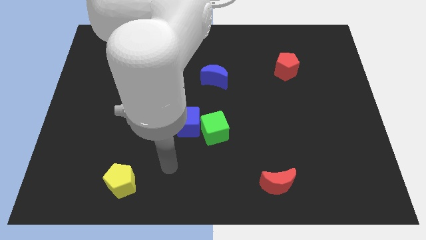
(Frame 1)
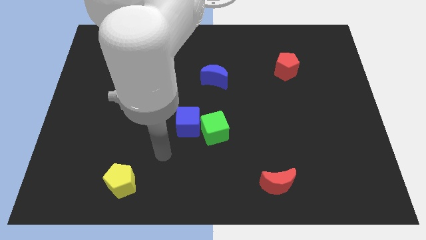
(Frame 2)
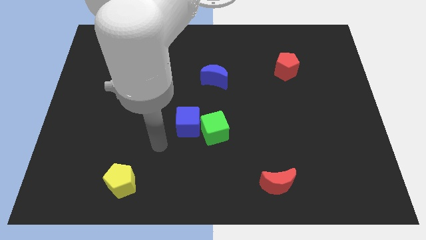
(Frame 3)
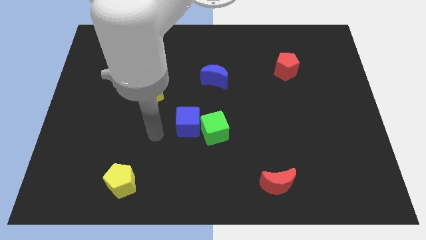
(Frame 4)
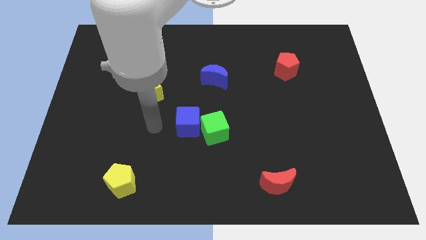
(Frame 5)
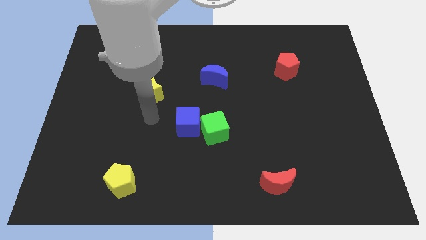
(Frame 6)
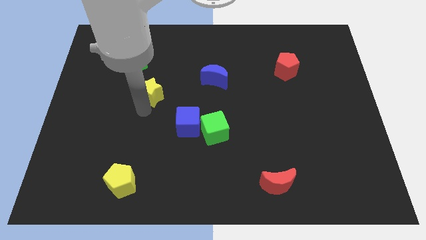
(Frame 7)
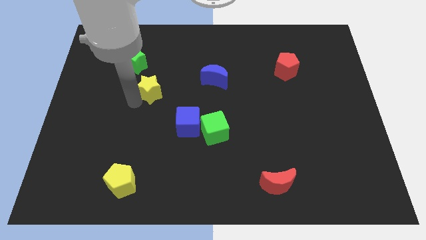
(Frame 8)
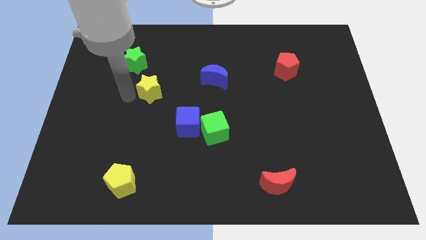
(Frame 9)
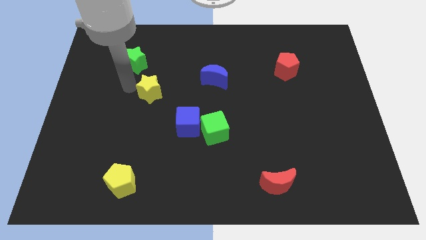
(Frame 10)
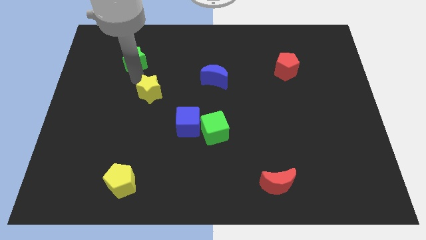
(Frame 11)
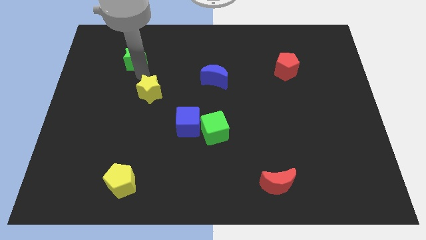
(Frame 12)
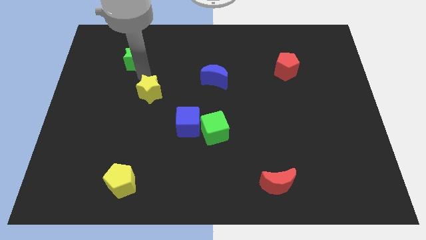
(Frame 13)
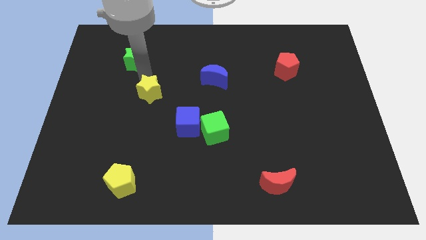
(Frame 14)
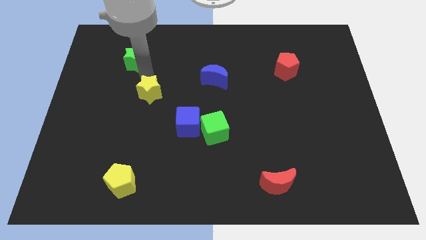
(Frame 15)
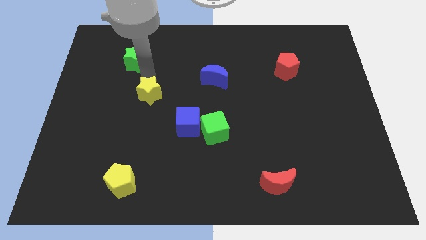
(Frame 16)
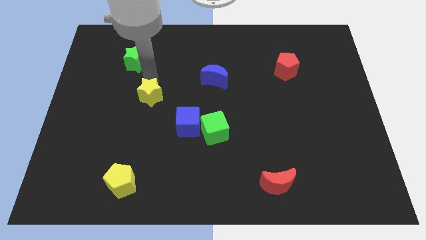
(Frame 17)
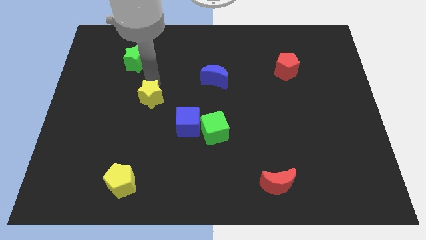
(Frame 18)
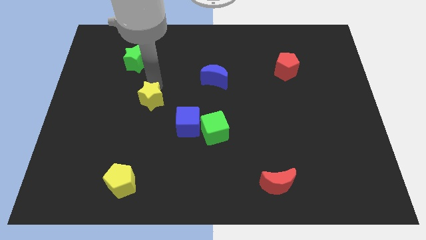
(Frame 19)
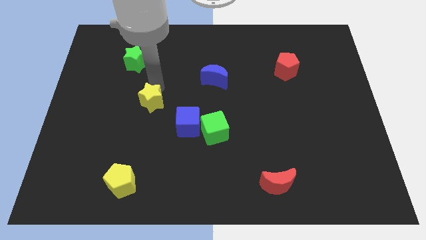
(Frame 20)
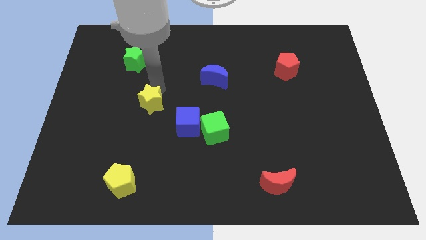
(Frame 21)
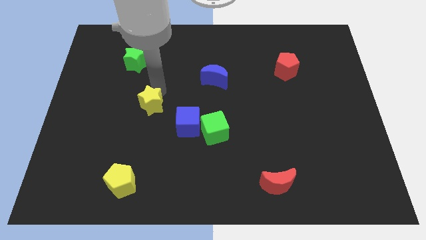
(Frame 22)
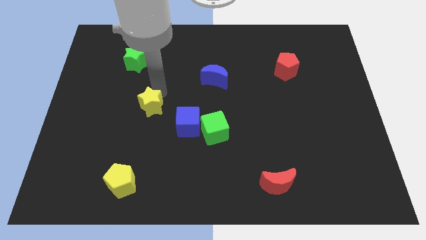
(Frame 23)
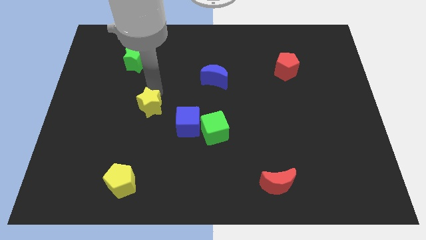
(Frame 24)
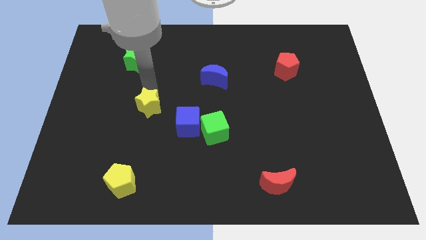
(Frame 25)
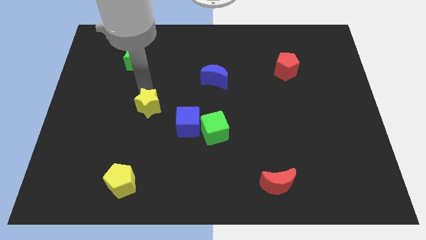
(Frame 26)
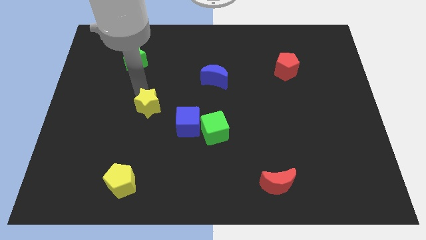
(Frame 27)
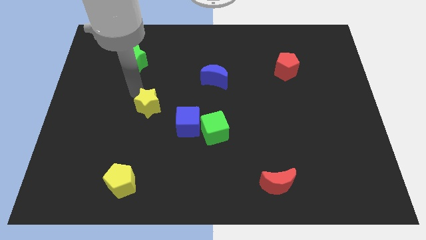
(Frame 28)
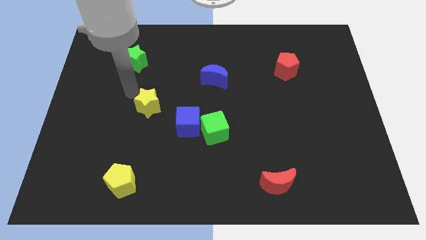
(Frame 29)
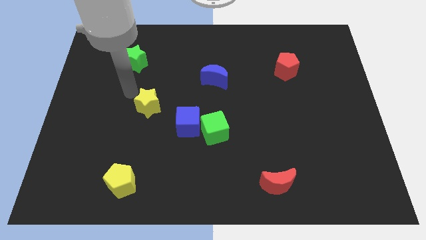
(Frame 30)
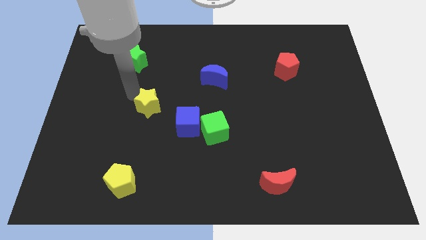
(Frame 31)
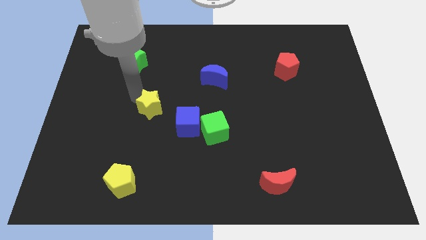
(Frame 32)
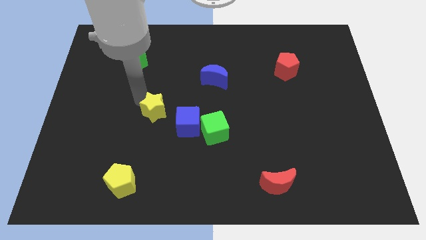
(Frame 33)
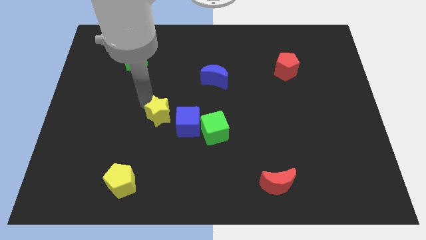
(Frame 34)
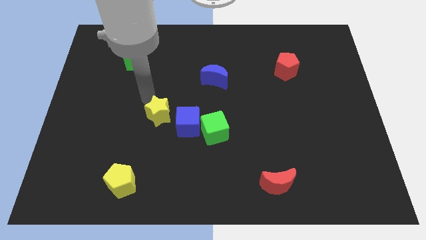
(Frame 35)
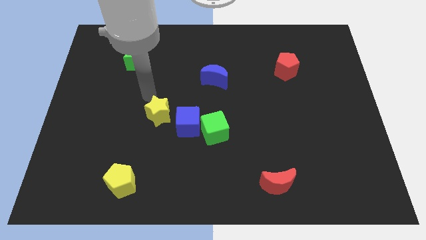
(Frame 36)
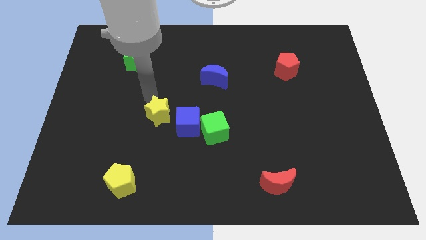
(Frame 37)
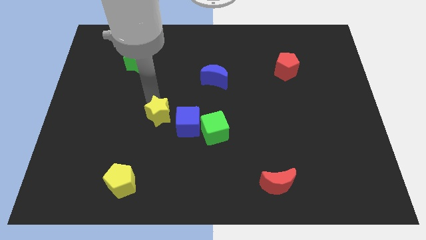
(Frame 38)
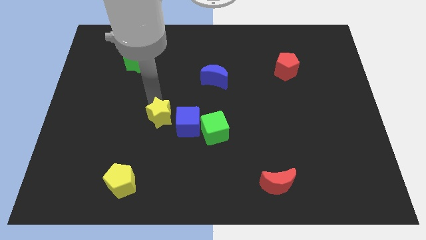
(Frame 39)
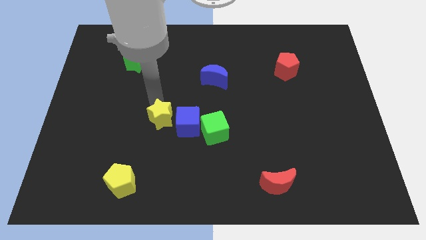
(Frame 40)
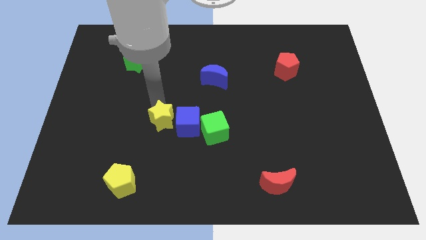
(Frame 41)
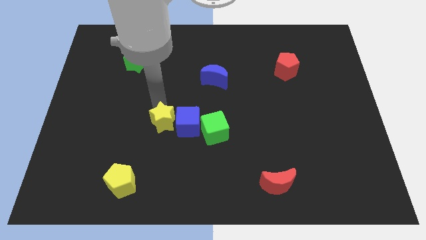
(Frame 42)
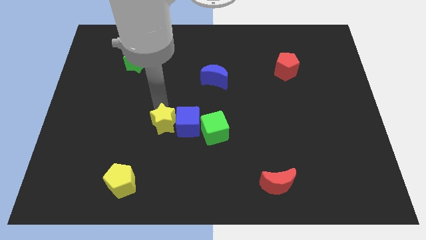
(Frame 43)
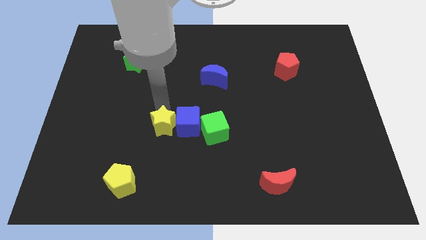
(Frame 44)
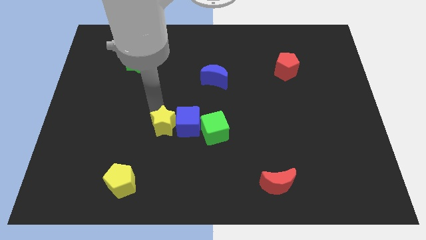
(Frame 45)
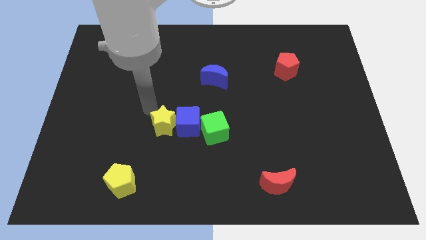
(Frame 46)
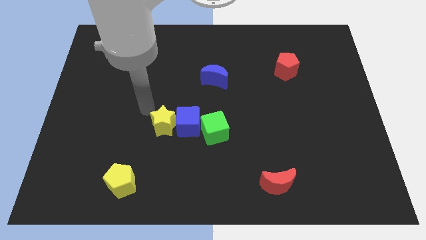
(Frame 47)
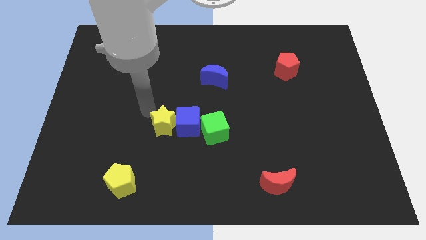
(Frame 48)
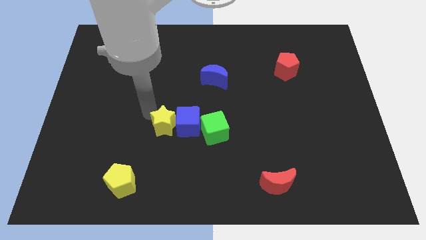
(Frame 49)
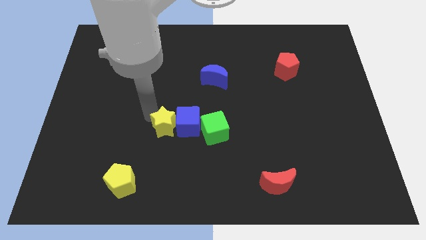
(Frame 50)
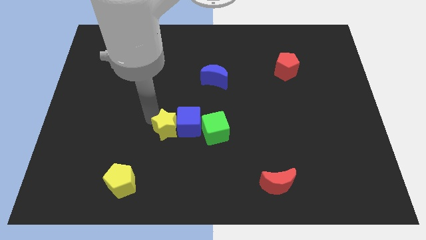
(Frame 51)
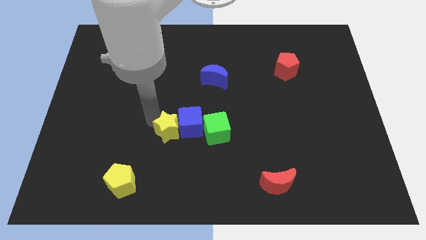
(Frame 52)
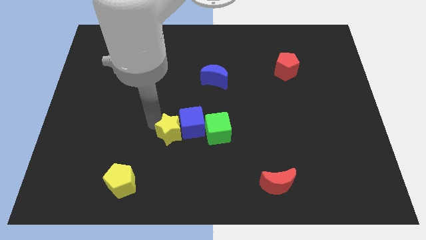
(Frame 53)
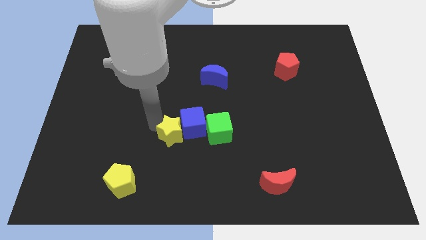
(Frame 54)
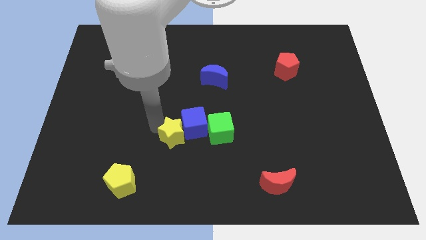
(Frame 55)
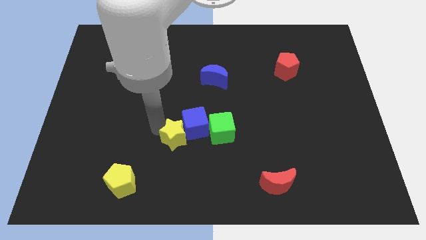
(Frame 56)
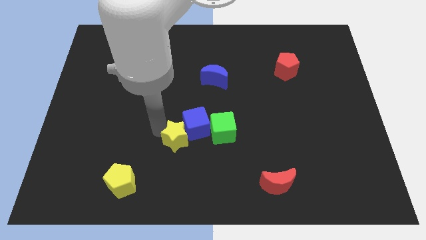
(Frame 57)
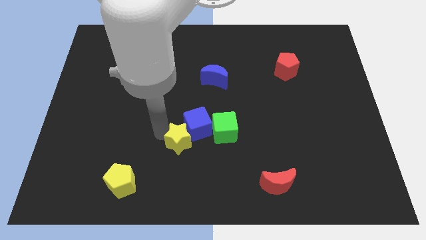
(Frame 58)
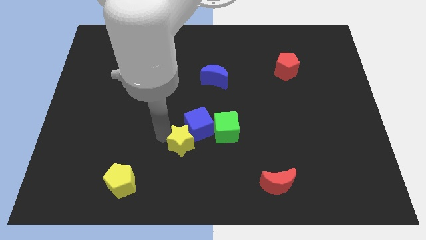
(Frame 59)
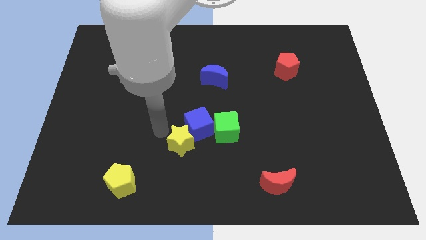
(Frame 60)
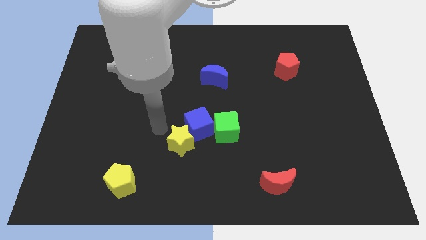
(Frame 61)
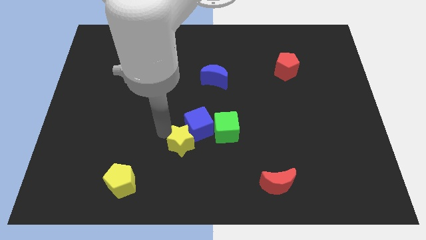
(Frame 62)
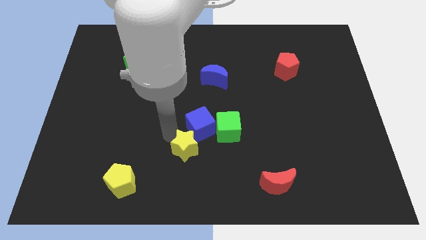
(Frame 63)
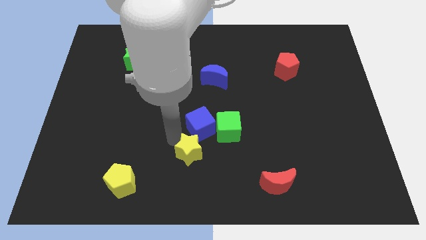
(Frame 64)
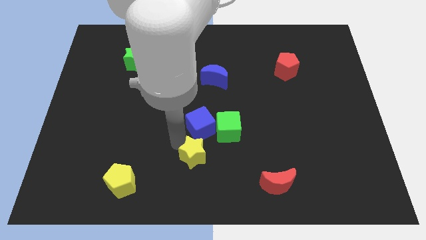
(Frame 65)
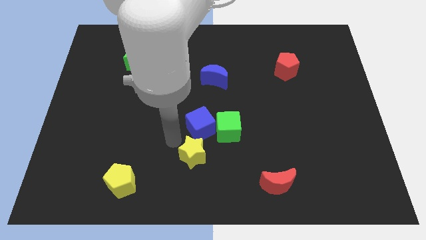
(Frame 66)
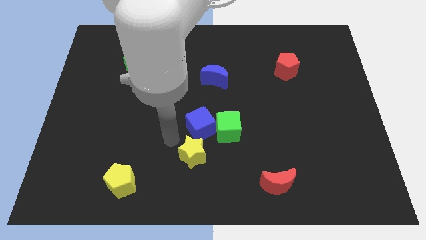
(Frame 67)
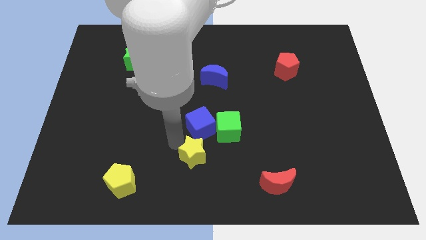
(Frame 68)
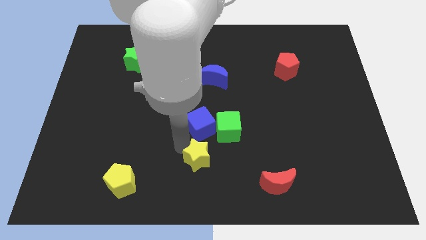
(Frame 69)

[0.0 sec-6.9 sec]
move the yellow star down and right

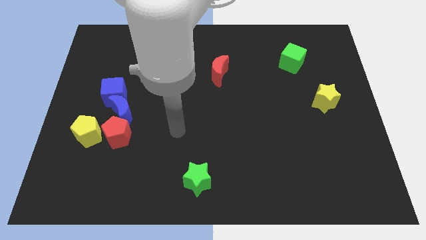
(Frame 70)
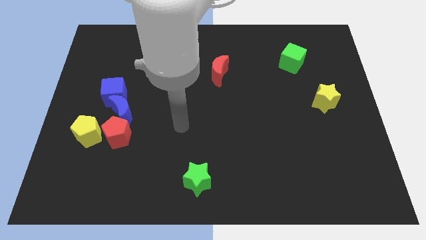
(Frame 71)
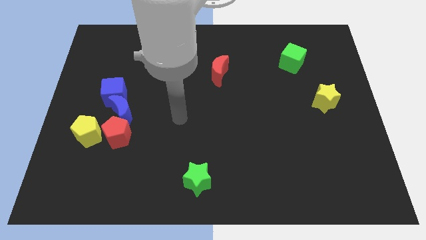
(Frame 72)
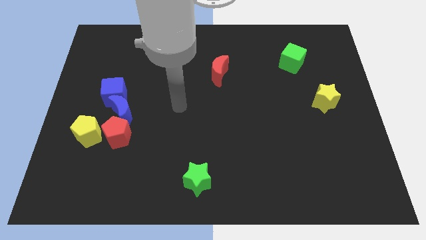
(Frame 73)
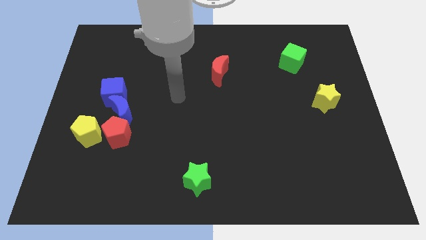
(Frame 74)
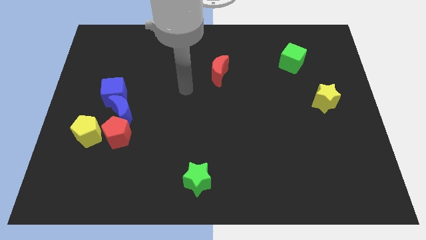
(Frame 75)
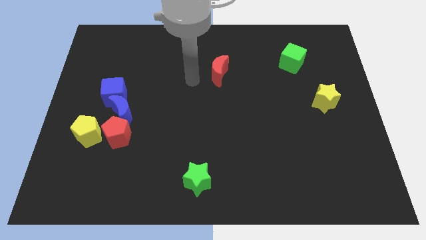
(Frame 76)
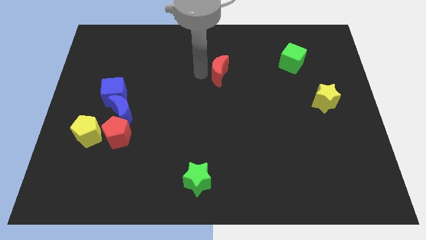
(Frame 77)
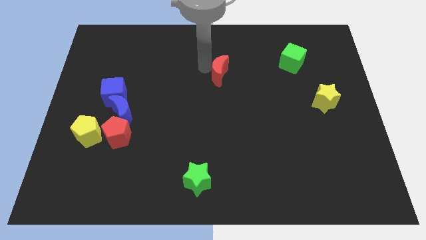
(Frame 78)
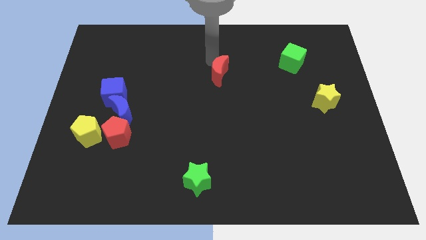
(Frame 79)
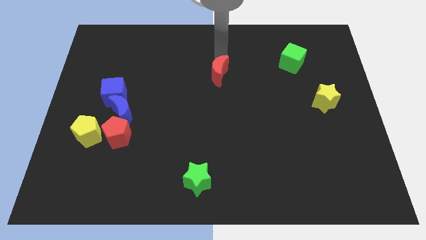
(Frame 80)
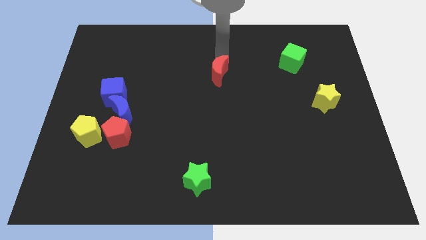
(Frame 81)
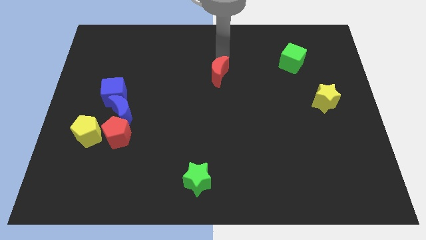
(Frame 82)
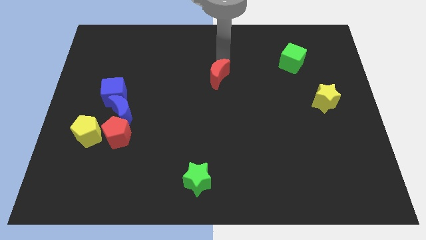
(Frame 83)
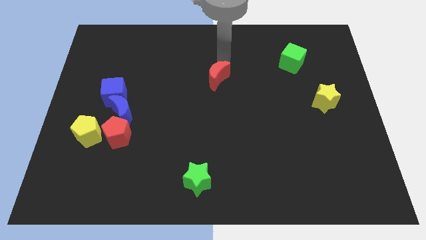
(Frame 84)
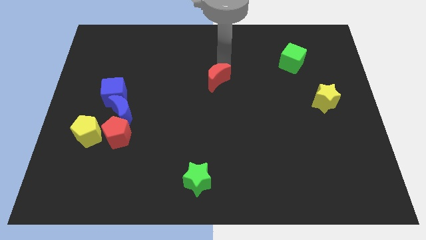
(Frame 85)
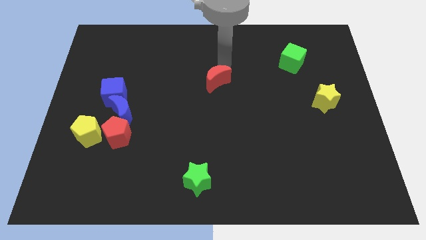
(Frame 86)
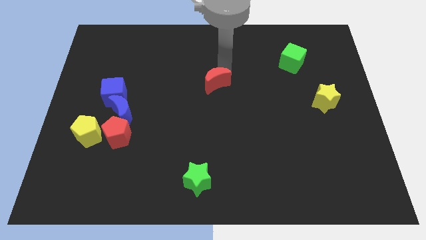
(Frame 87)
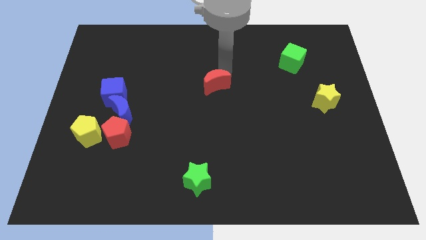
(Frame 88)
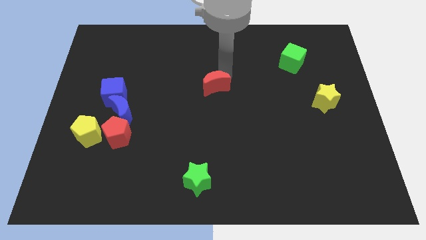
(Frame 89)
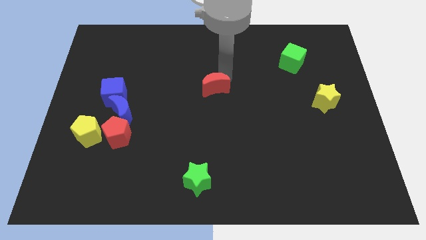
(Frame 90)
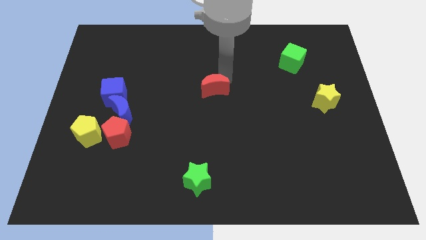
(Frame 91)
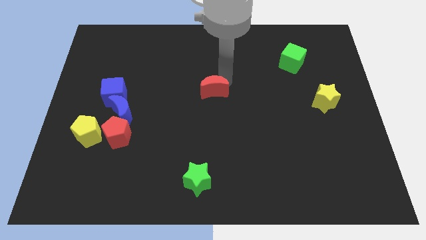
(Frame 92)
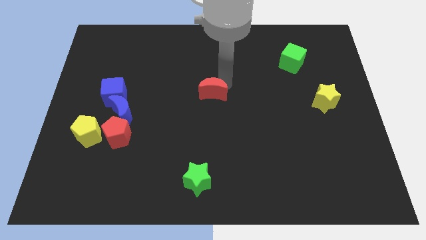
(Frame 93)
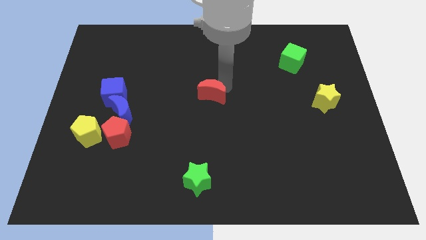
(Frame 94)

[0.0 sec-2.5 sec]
slide the red moon a little bit down
